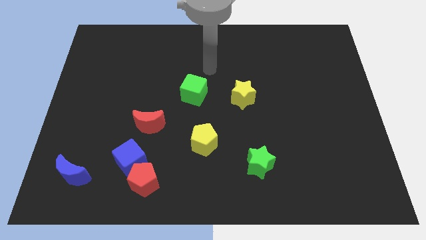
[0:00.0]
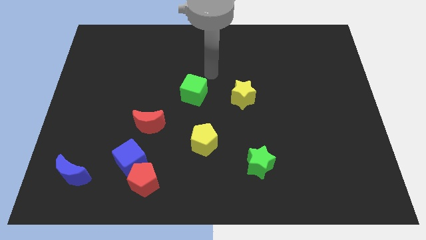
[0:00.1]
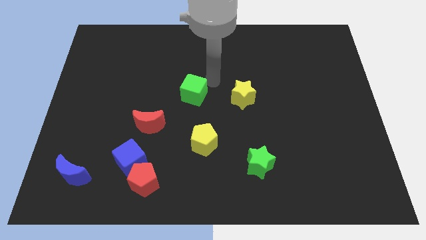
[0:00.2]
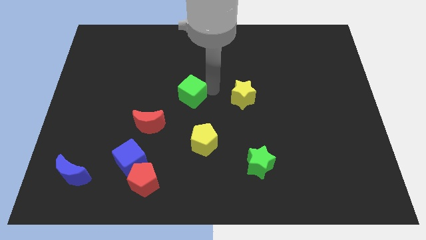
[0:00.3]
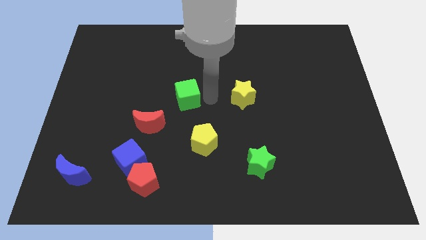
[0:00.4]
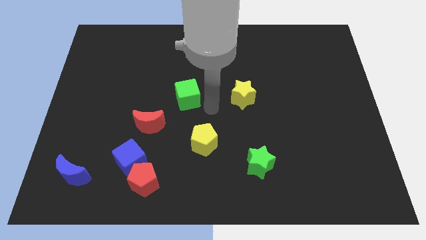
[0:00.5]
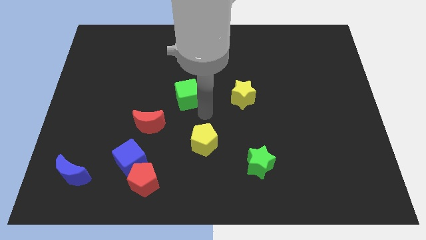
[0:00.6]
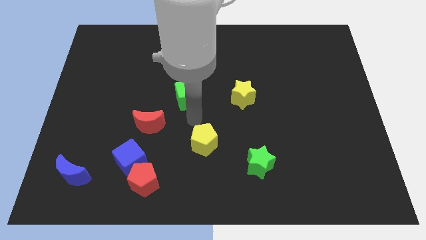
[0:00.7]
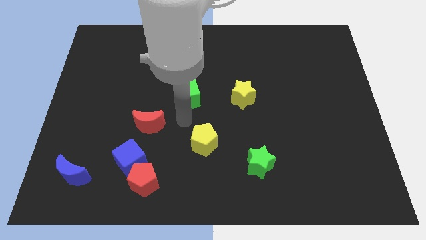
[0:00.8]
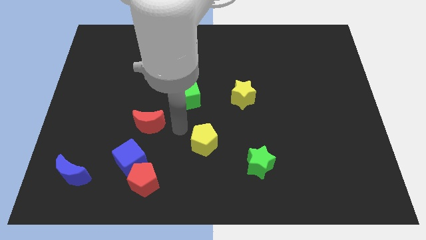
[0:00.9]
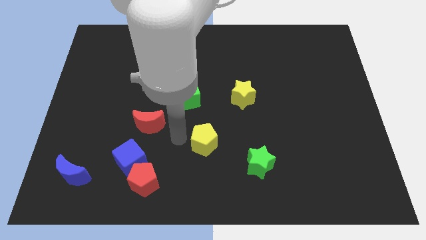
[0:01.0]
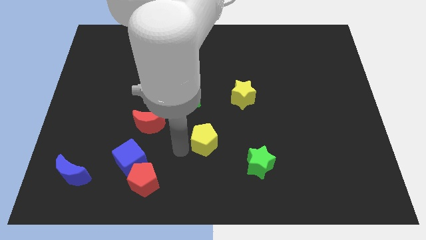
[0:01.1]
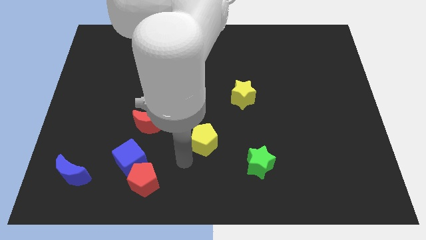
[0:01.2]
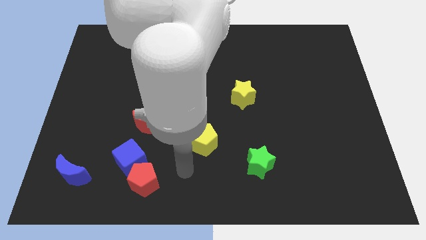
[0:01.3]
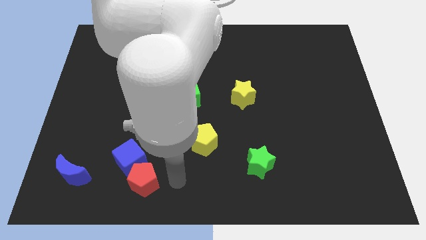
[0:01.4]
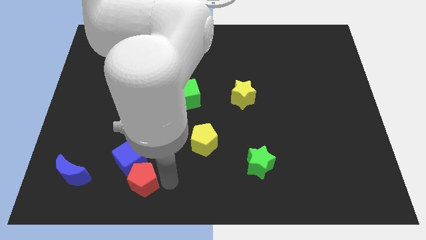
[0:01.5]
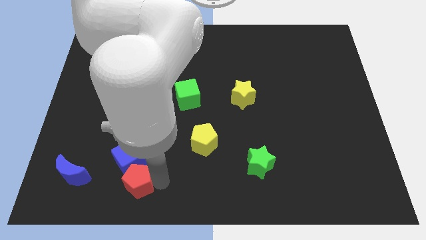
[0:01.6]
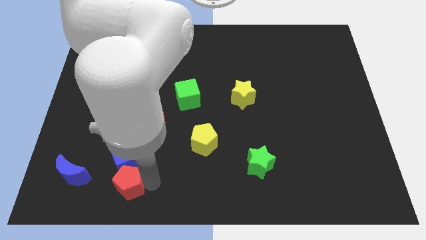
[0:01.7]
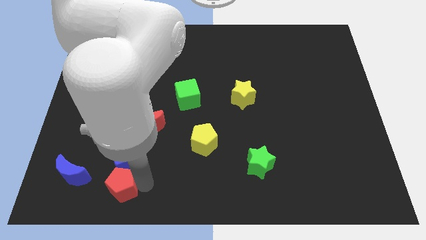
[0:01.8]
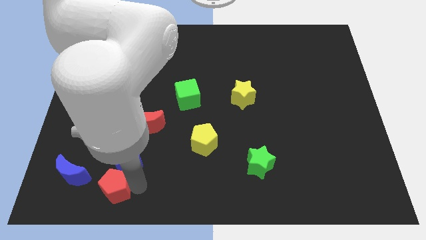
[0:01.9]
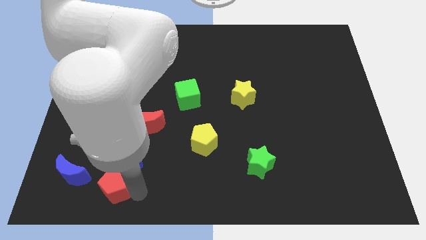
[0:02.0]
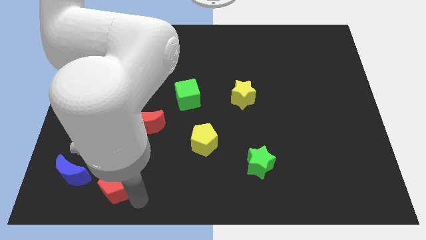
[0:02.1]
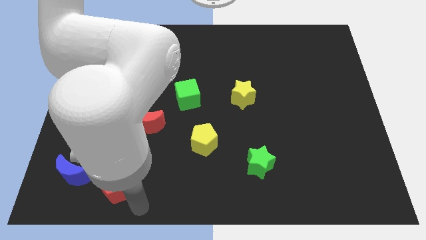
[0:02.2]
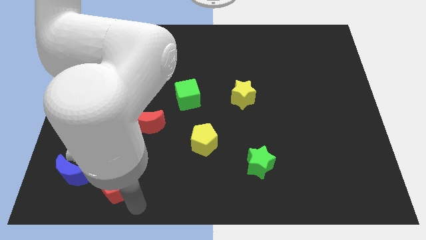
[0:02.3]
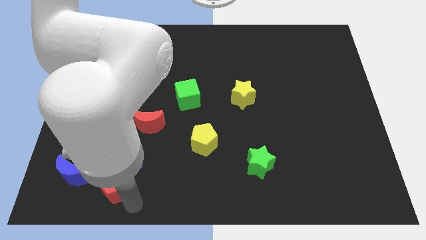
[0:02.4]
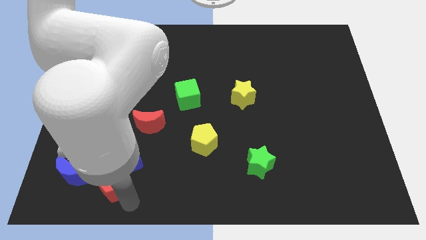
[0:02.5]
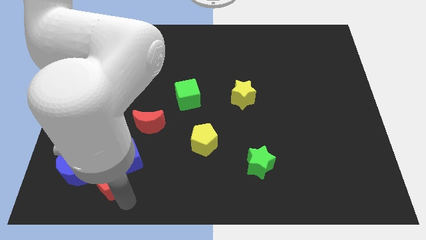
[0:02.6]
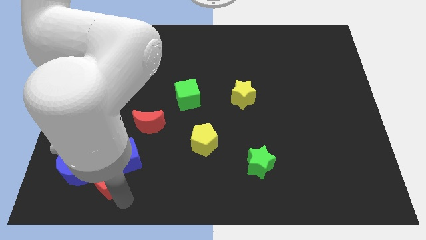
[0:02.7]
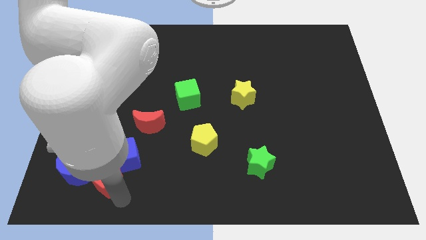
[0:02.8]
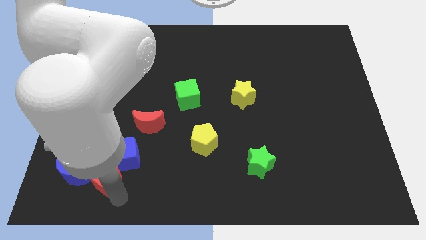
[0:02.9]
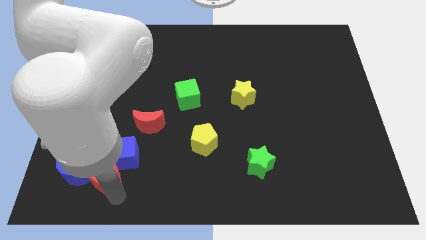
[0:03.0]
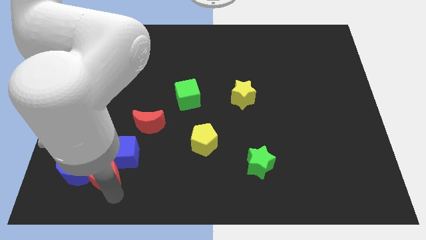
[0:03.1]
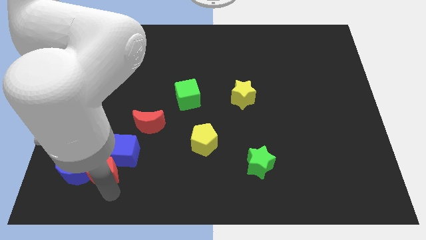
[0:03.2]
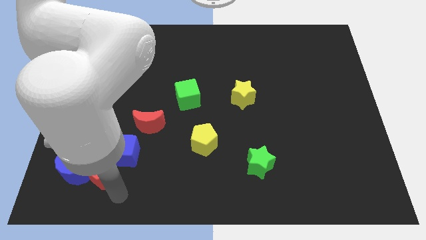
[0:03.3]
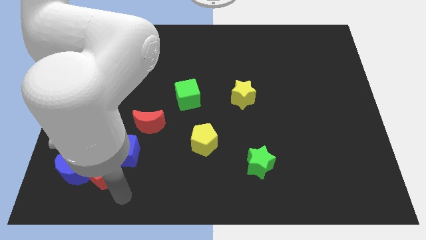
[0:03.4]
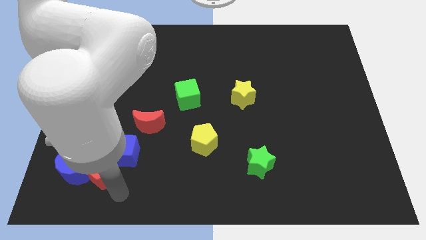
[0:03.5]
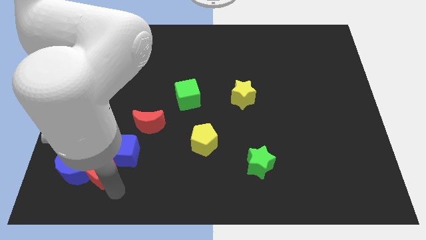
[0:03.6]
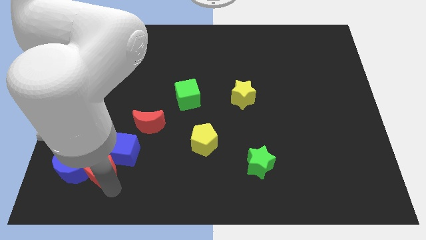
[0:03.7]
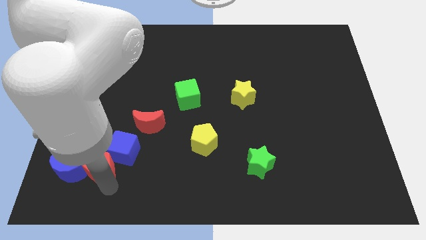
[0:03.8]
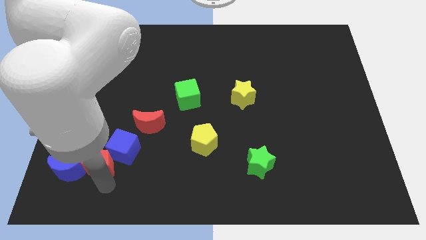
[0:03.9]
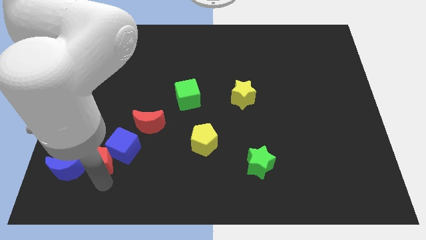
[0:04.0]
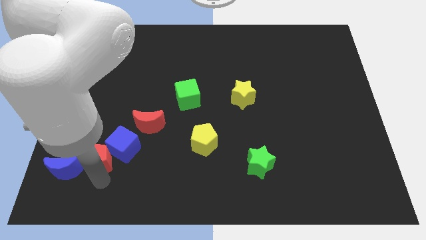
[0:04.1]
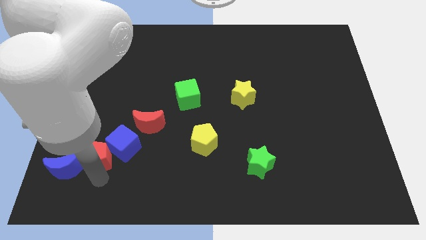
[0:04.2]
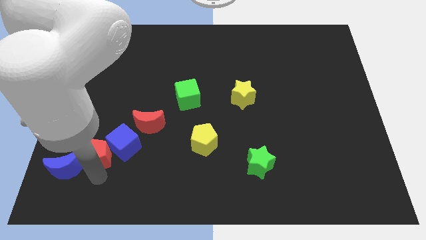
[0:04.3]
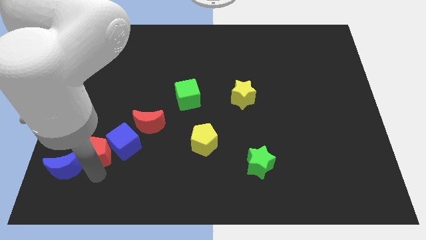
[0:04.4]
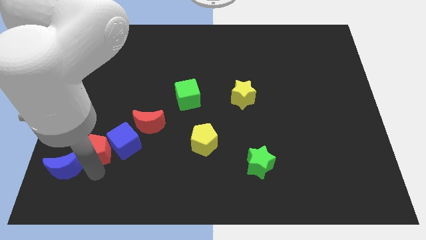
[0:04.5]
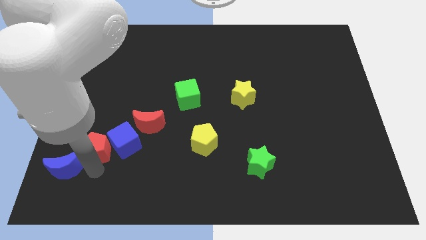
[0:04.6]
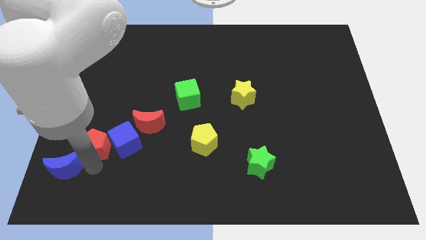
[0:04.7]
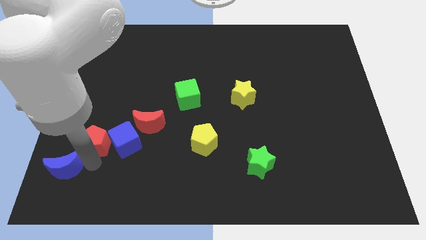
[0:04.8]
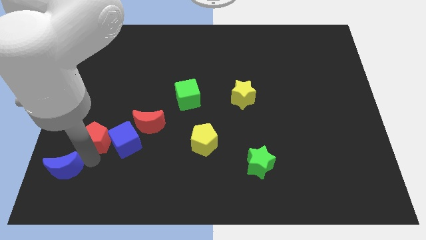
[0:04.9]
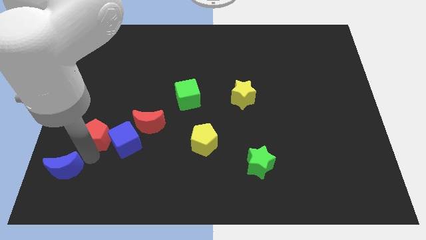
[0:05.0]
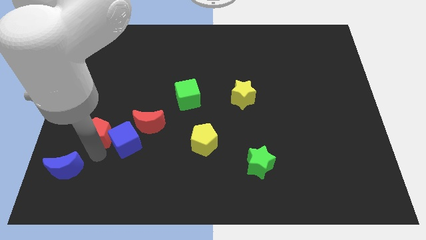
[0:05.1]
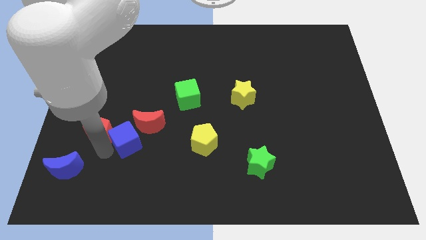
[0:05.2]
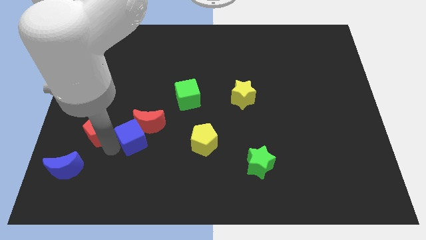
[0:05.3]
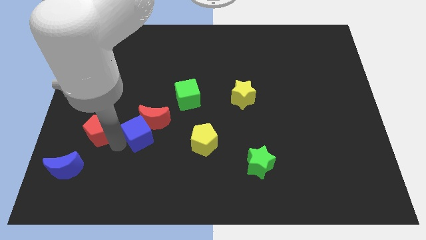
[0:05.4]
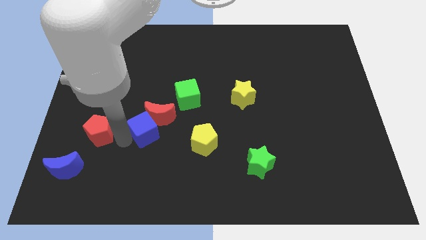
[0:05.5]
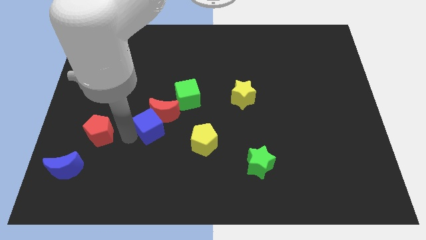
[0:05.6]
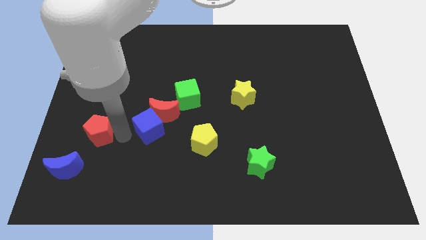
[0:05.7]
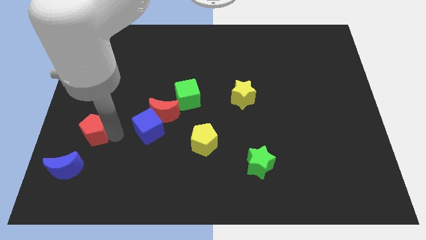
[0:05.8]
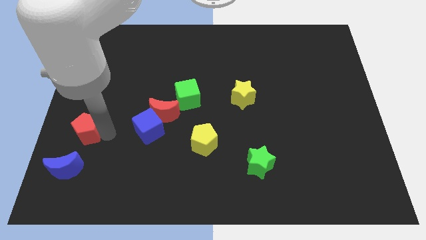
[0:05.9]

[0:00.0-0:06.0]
move the red pentagon to the center left

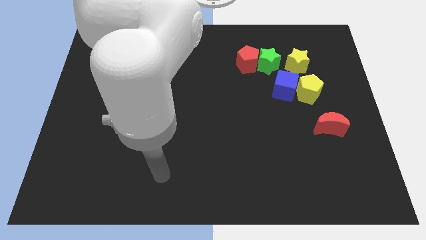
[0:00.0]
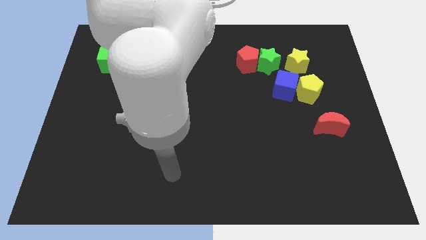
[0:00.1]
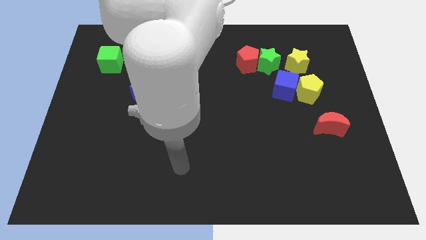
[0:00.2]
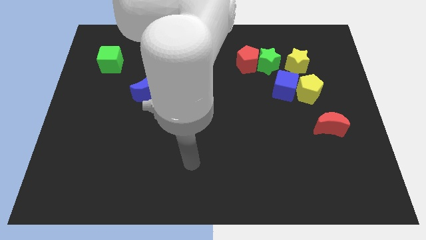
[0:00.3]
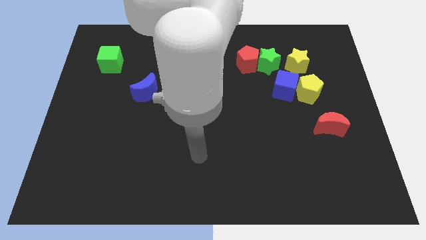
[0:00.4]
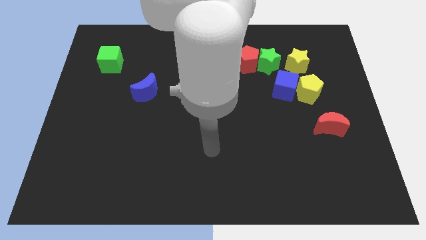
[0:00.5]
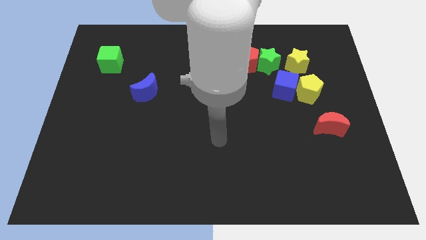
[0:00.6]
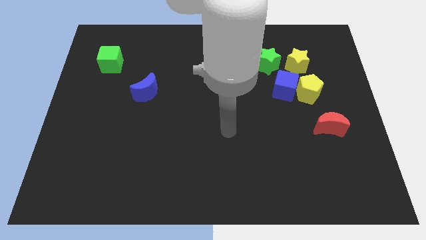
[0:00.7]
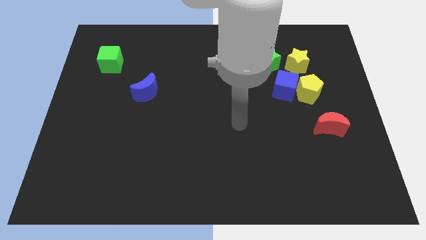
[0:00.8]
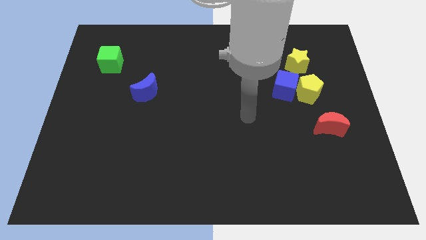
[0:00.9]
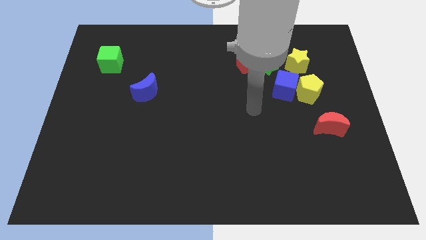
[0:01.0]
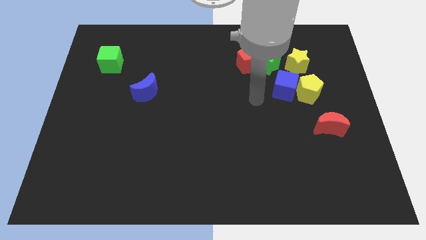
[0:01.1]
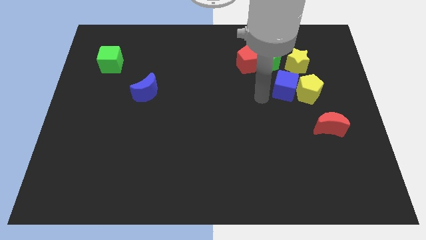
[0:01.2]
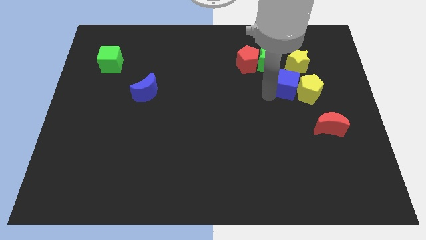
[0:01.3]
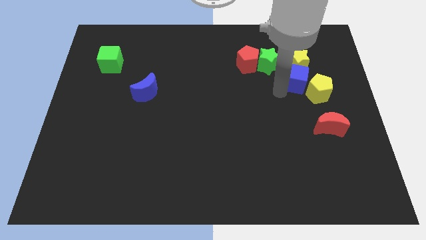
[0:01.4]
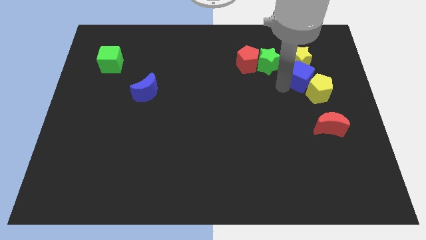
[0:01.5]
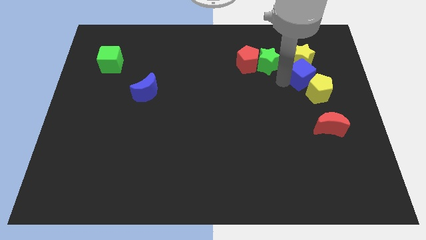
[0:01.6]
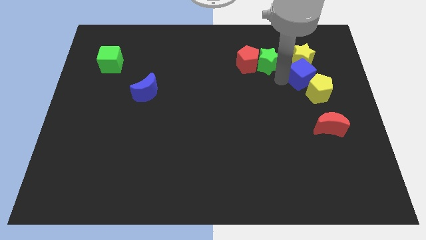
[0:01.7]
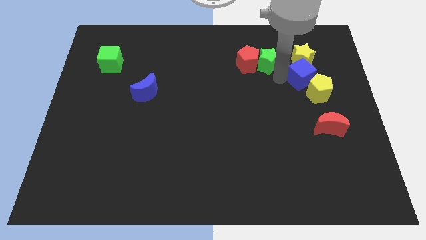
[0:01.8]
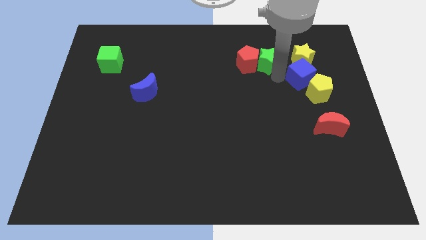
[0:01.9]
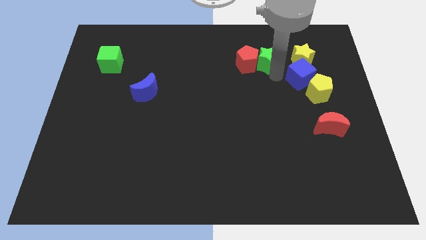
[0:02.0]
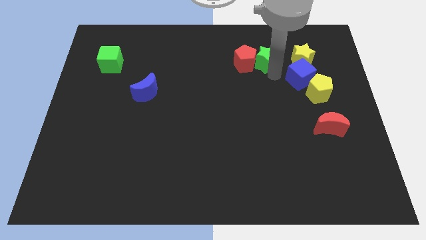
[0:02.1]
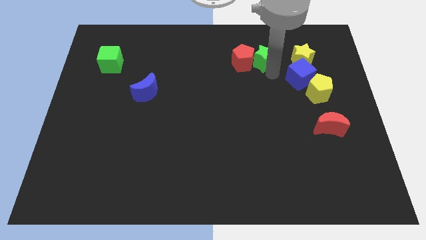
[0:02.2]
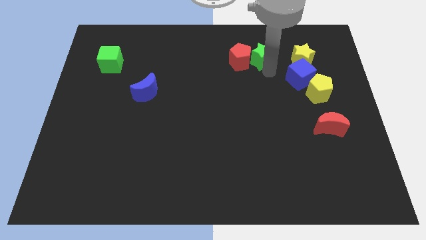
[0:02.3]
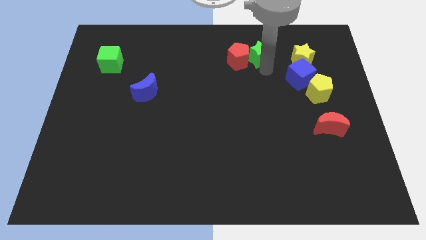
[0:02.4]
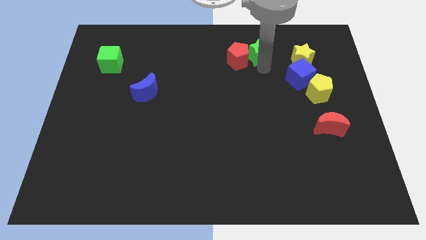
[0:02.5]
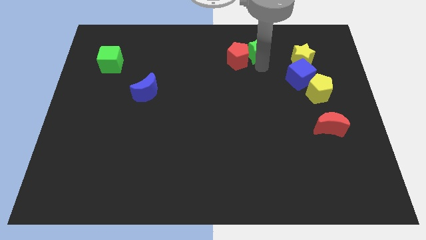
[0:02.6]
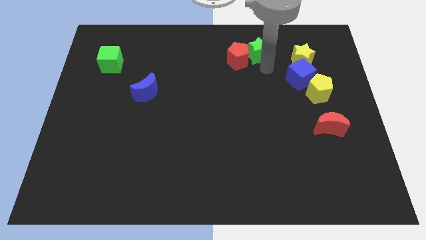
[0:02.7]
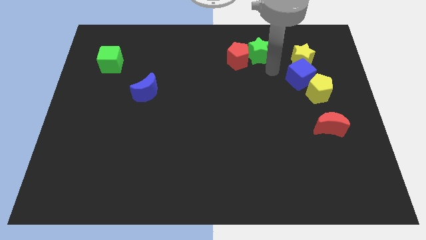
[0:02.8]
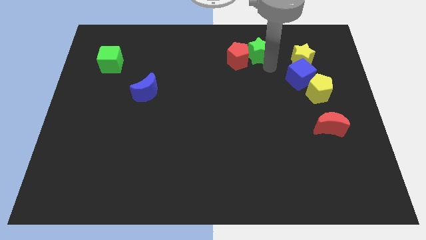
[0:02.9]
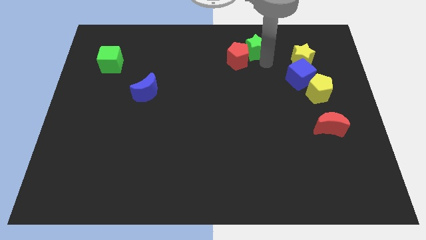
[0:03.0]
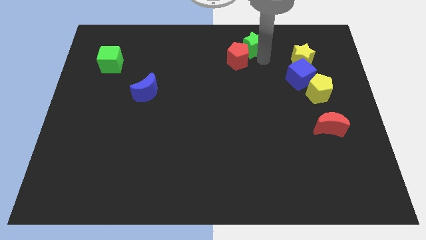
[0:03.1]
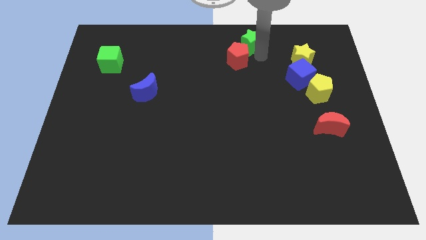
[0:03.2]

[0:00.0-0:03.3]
slide the green star to the towards your base
